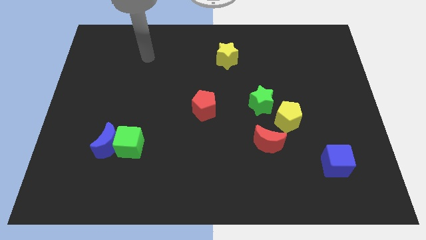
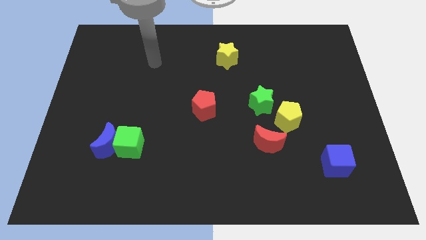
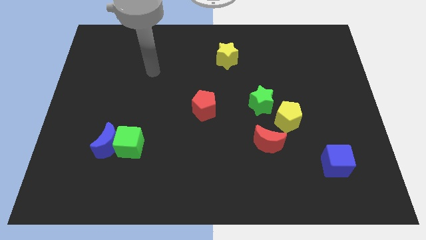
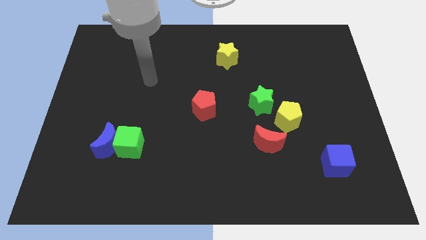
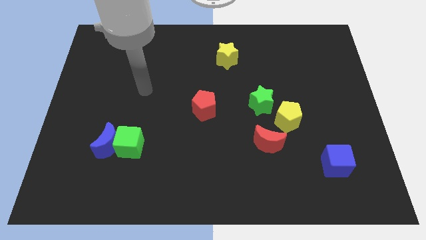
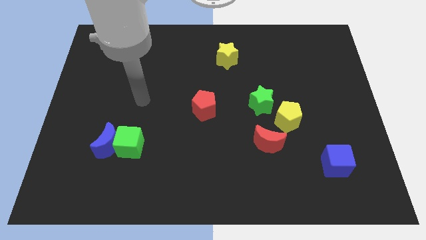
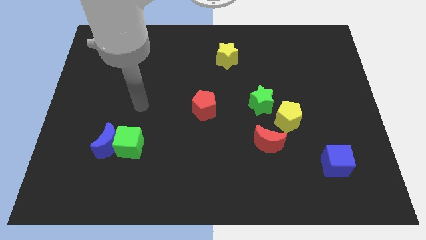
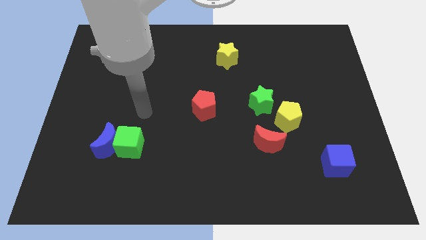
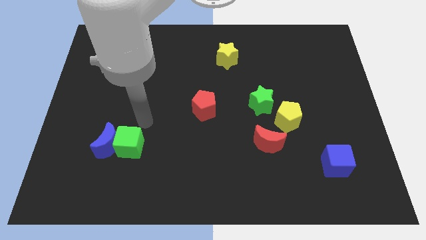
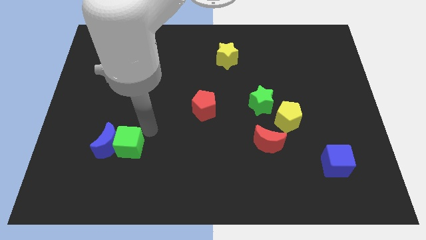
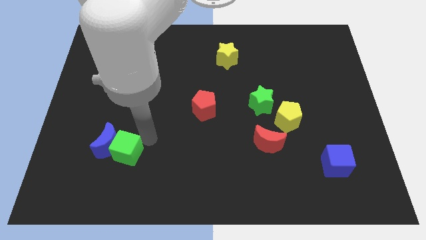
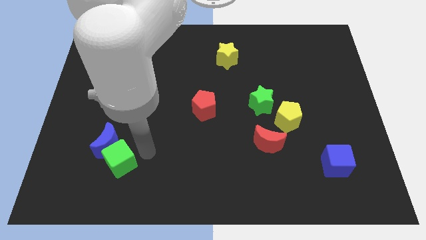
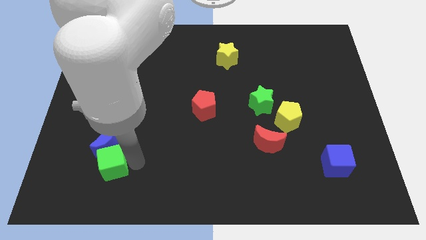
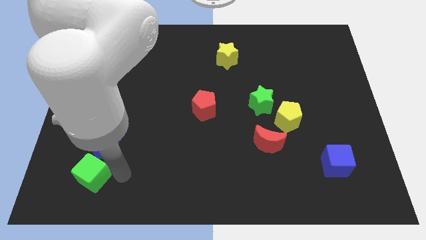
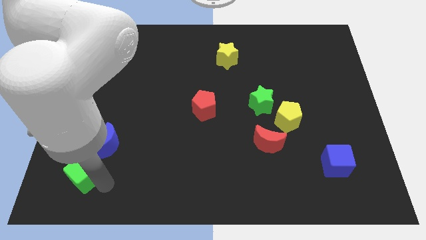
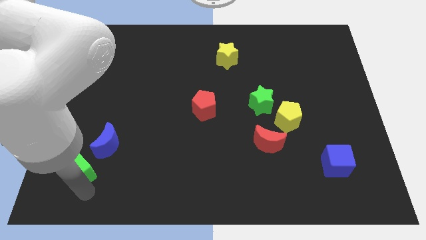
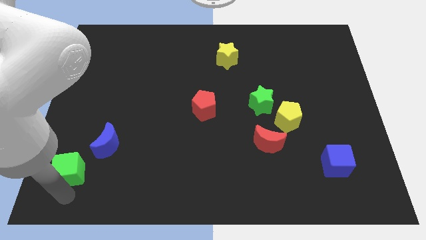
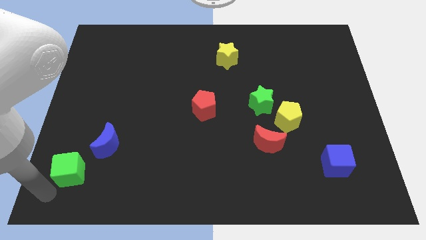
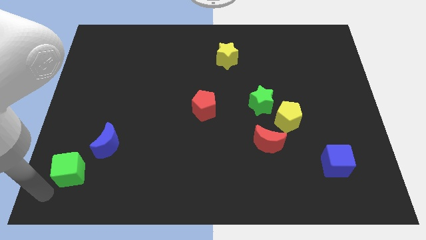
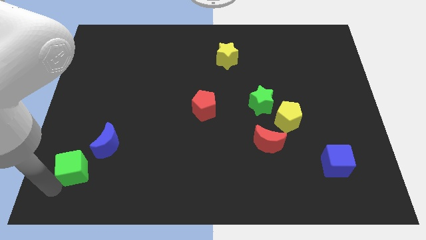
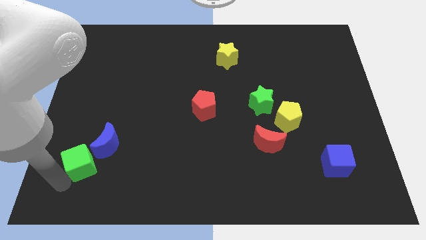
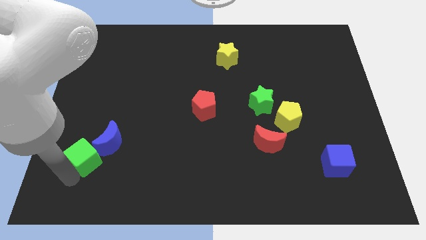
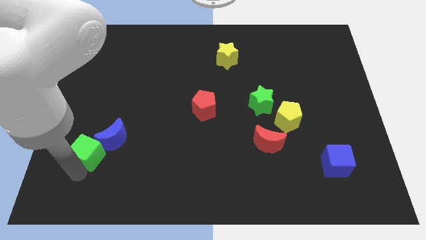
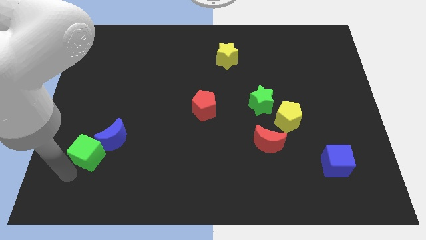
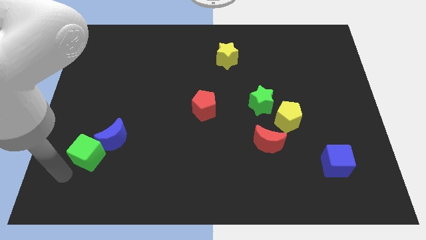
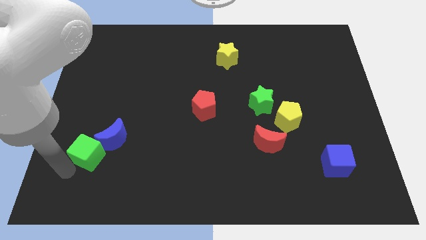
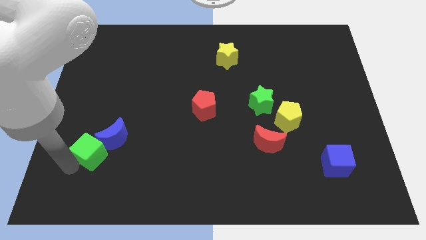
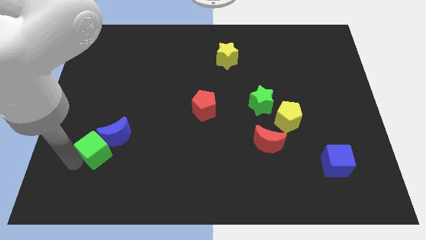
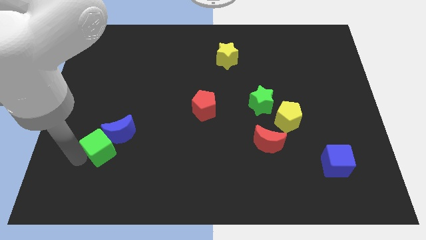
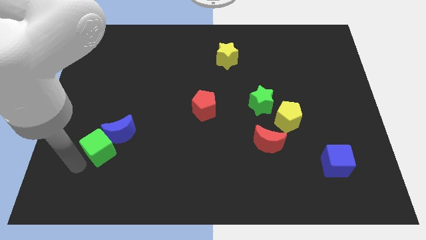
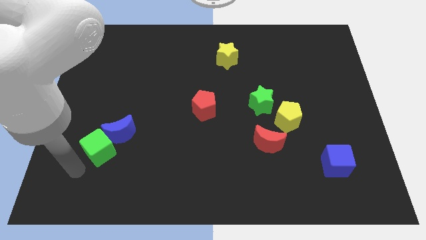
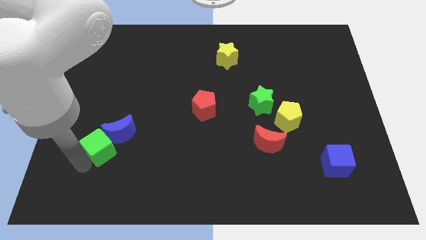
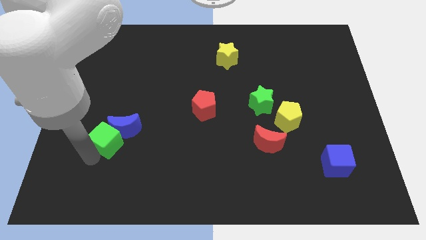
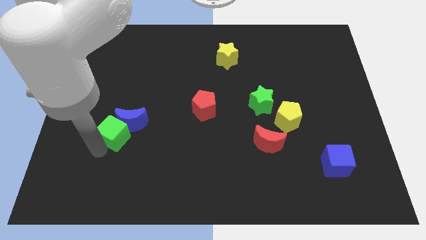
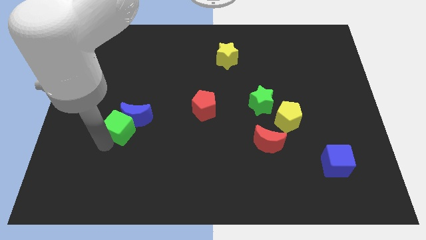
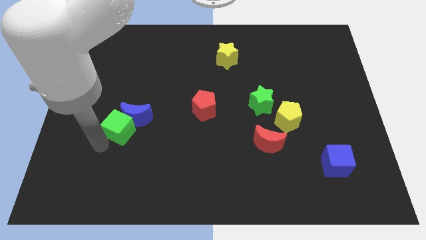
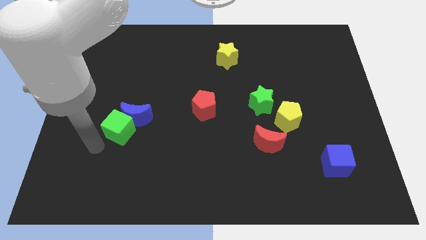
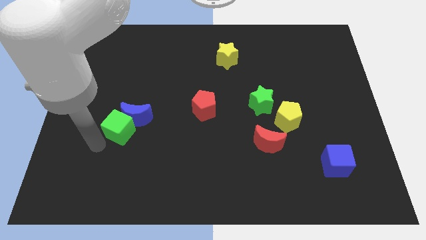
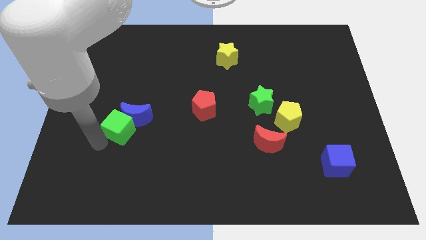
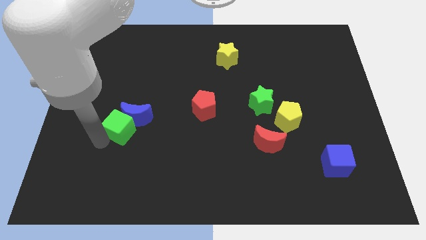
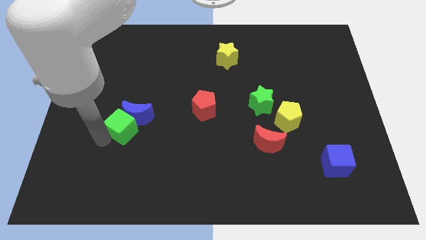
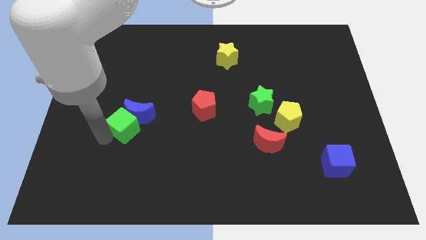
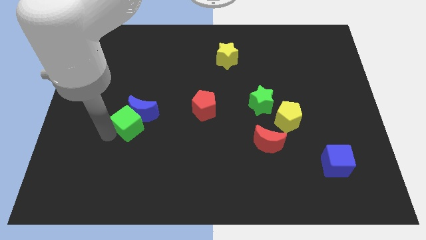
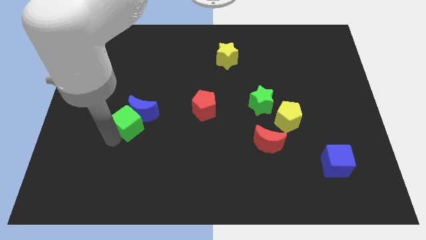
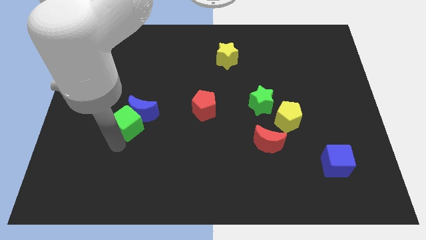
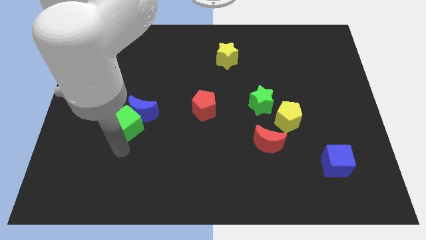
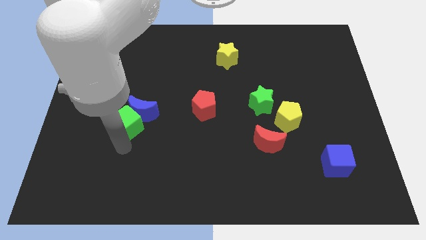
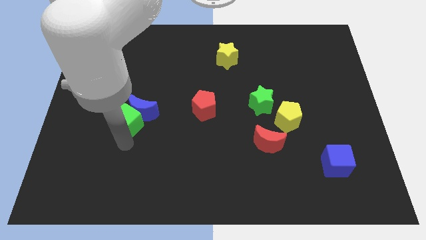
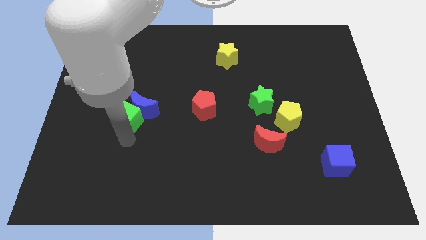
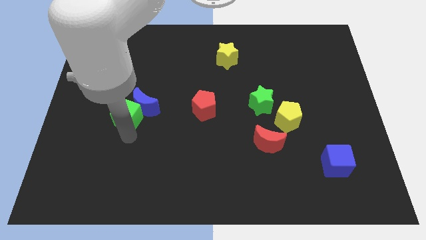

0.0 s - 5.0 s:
move the green cube upwards a bit

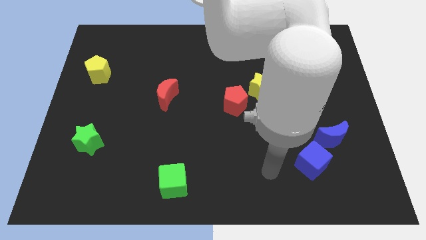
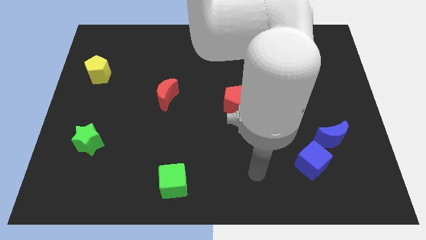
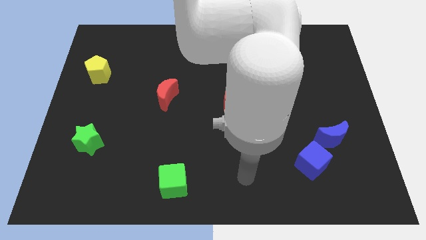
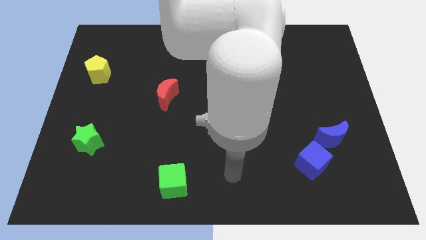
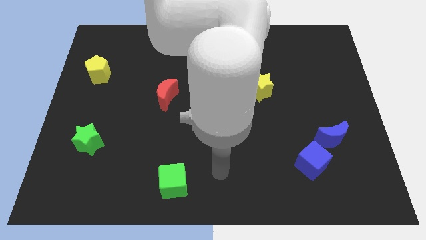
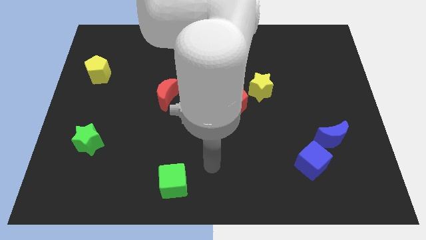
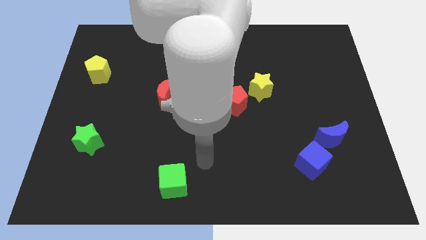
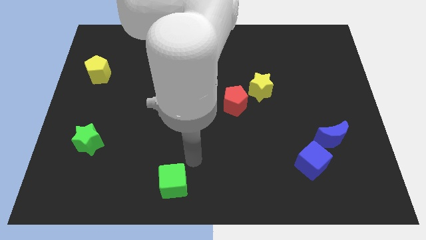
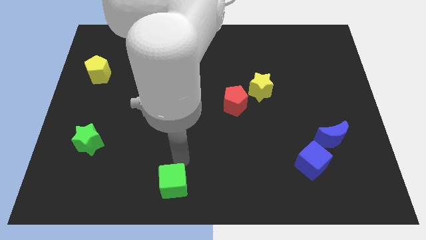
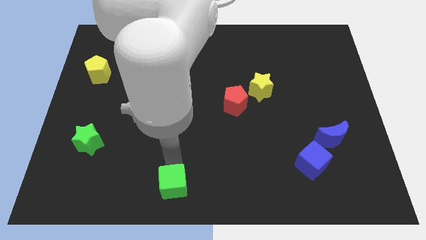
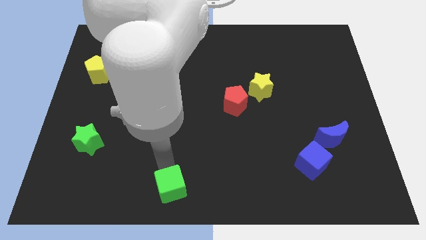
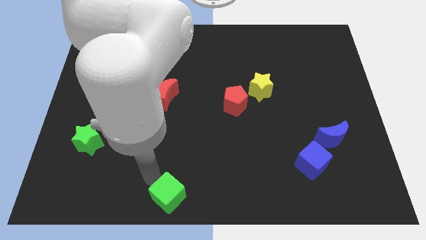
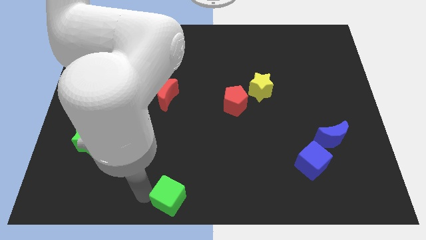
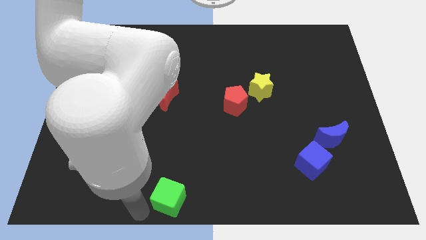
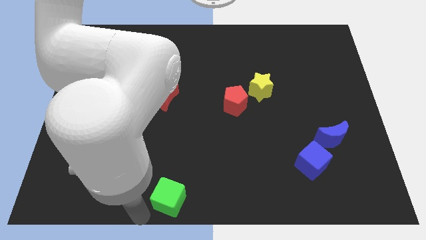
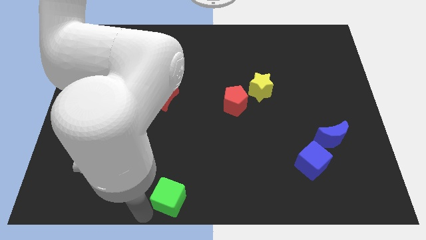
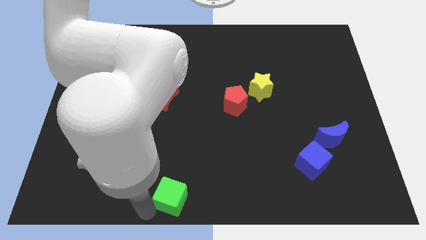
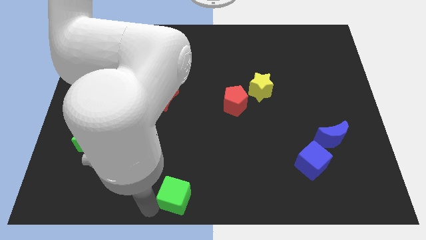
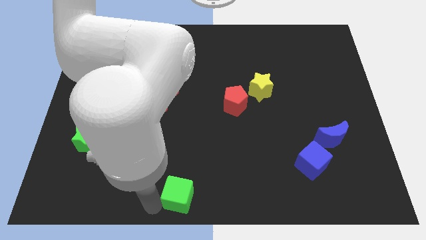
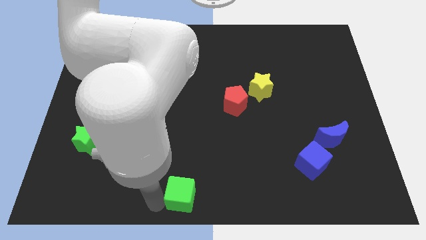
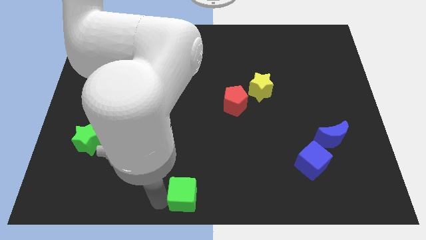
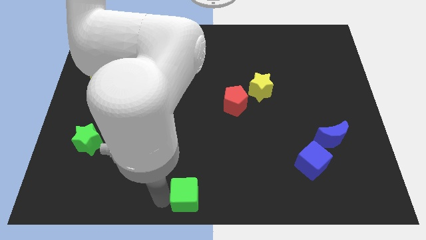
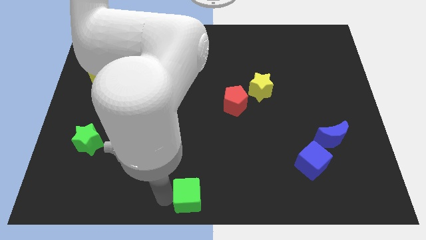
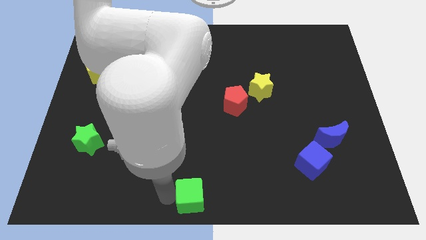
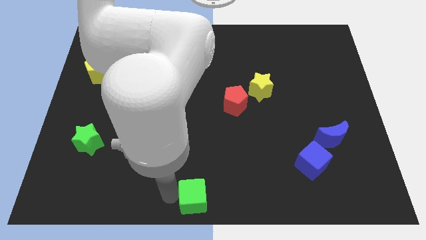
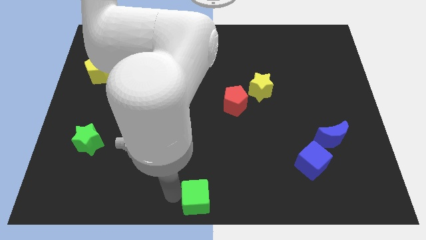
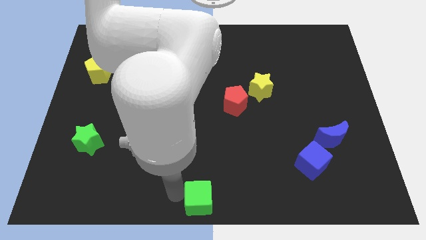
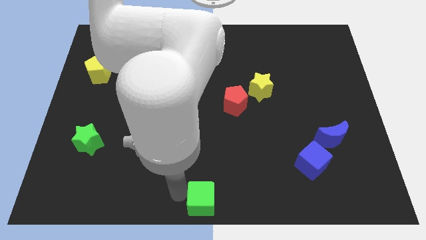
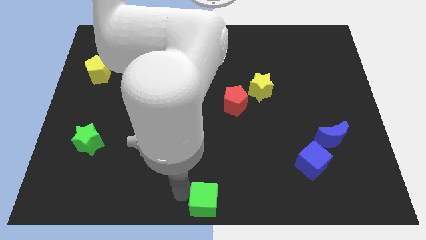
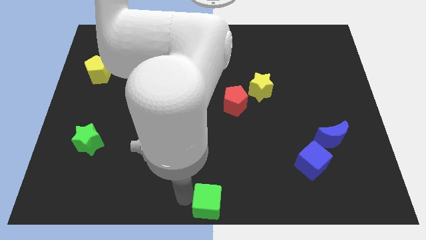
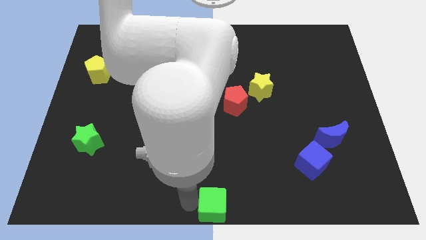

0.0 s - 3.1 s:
slide the green cube right a little bit
